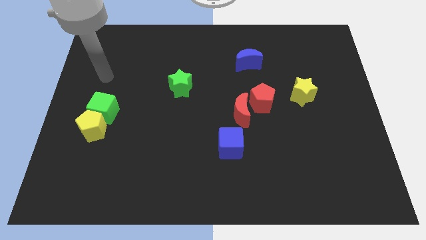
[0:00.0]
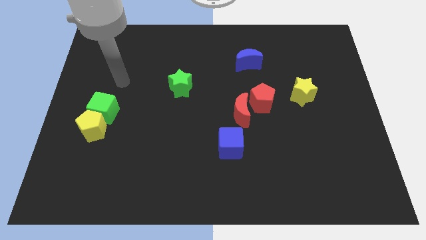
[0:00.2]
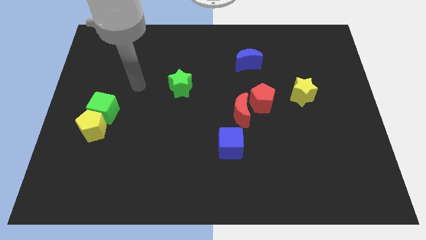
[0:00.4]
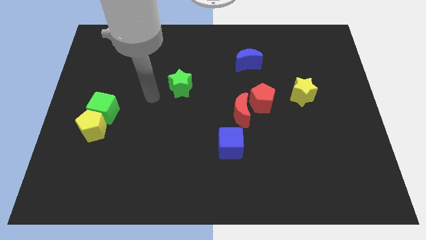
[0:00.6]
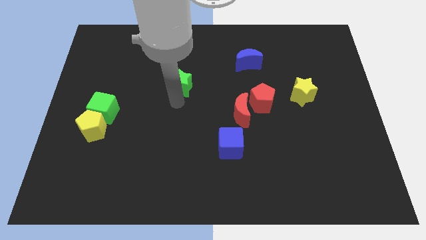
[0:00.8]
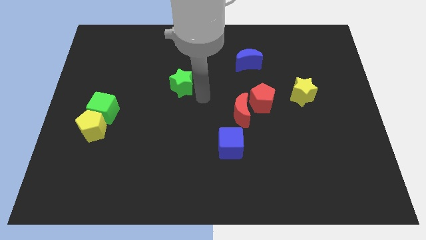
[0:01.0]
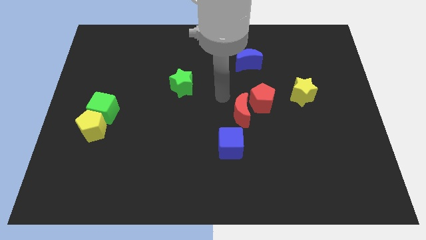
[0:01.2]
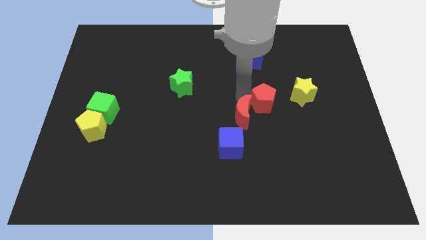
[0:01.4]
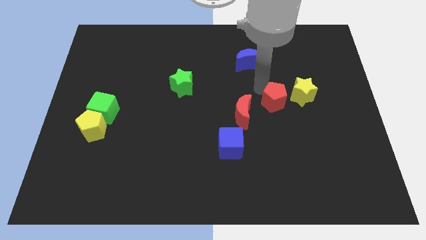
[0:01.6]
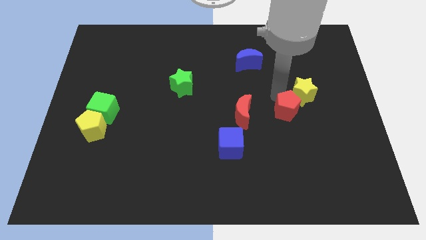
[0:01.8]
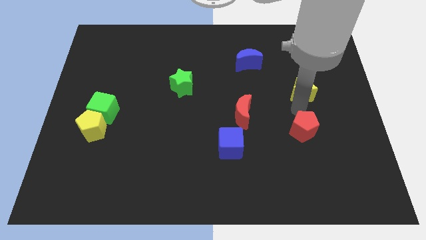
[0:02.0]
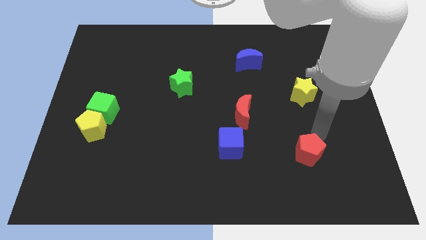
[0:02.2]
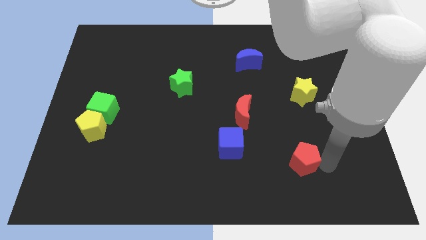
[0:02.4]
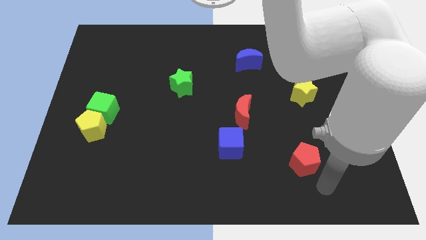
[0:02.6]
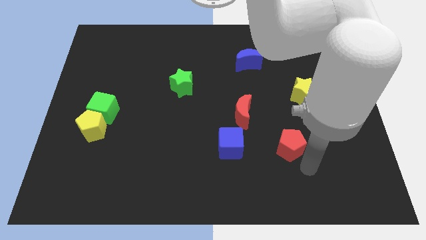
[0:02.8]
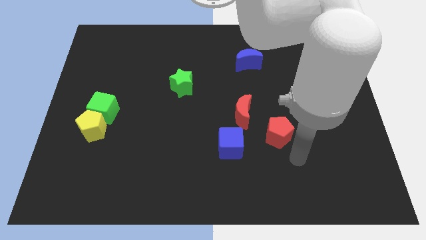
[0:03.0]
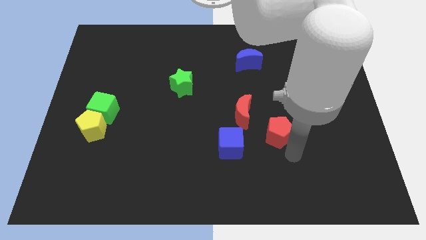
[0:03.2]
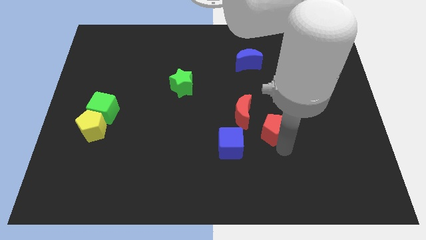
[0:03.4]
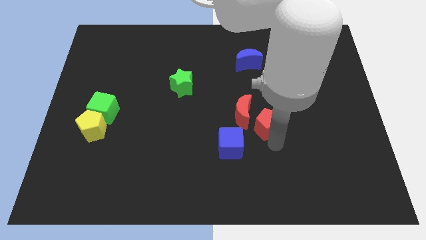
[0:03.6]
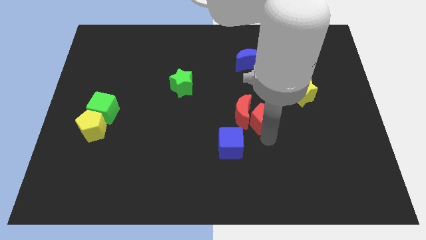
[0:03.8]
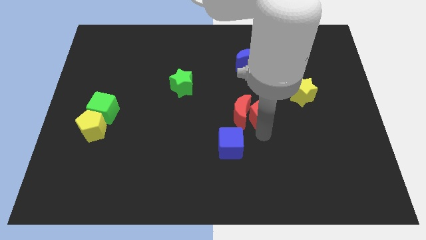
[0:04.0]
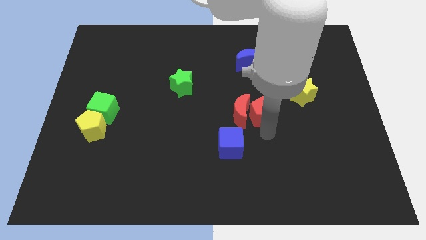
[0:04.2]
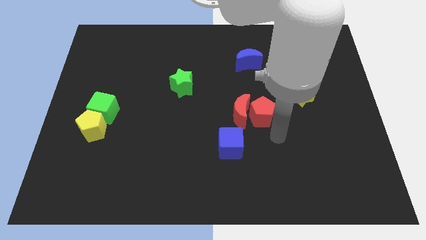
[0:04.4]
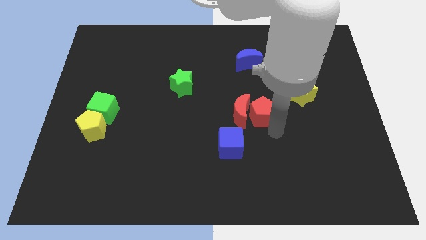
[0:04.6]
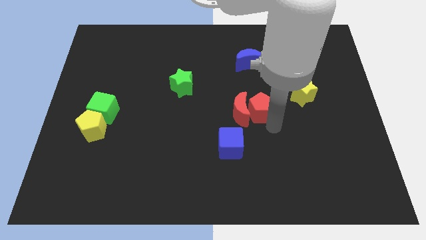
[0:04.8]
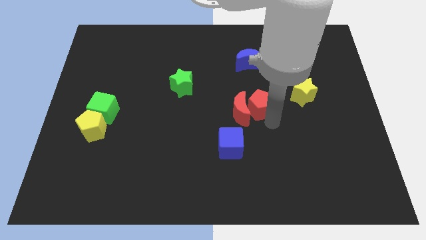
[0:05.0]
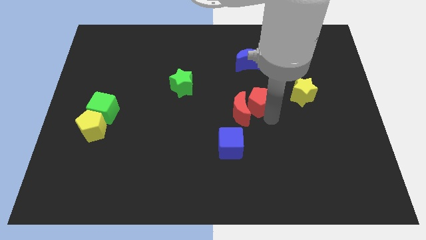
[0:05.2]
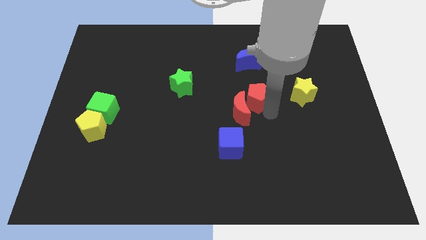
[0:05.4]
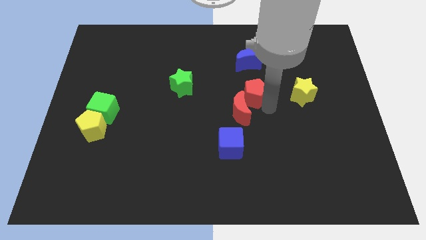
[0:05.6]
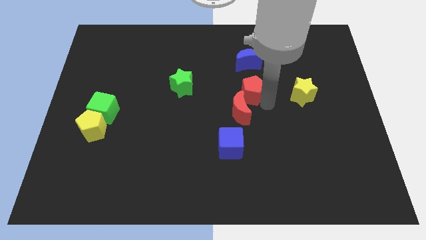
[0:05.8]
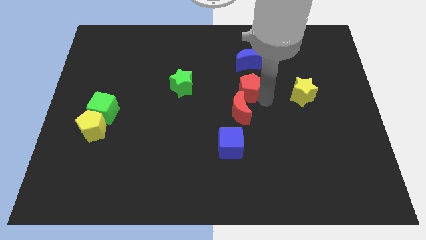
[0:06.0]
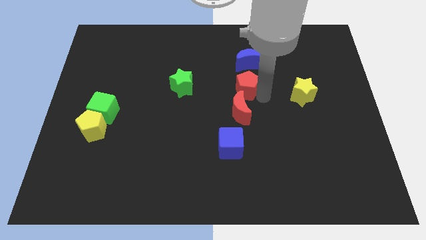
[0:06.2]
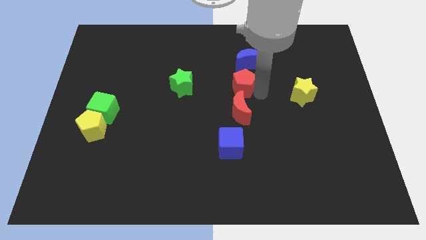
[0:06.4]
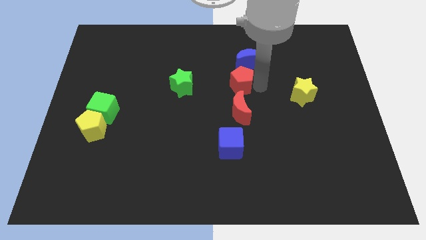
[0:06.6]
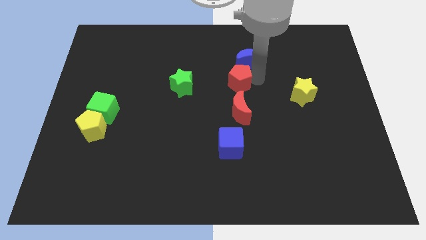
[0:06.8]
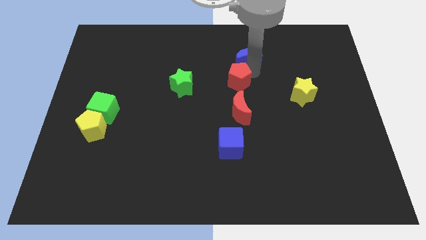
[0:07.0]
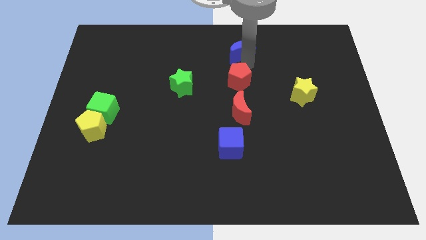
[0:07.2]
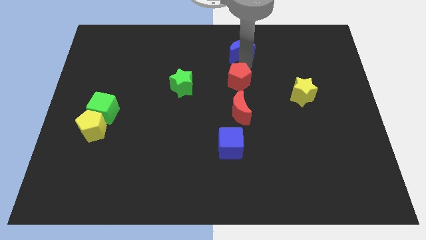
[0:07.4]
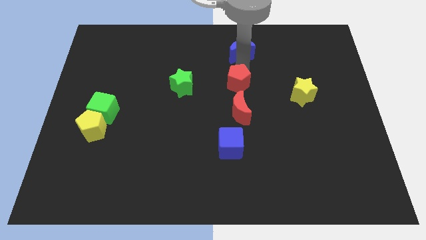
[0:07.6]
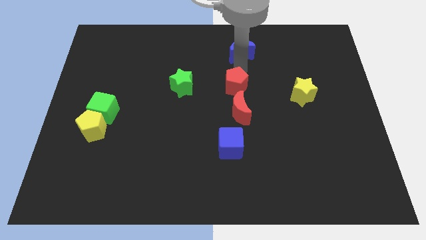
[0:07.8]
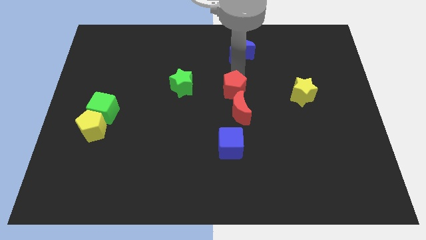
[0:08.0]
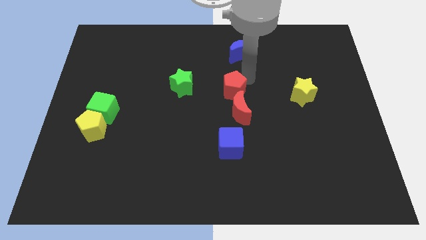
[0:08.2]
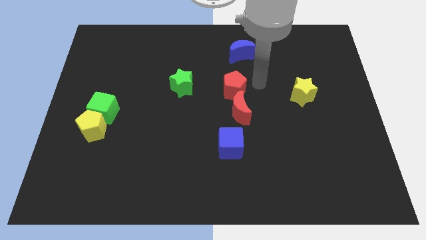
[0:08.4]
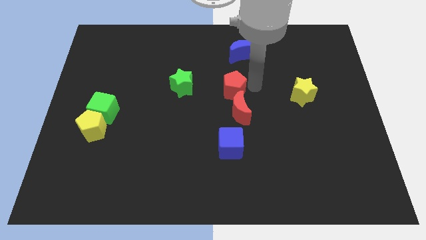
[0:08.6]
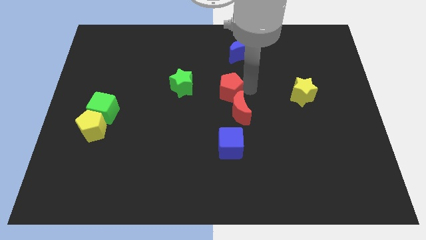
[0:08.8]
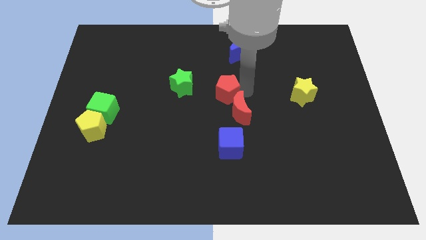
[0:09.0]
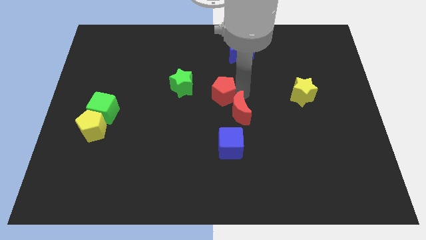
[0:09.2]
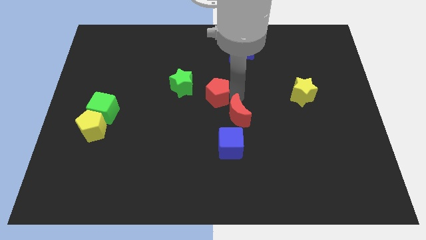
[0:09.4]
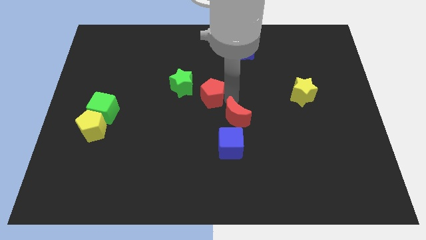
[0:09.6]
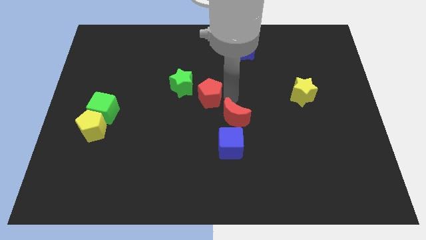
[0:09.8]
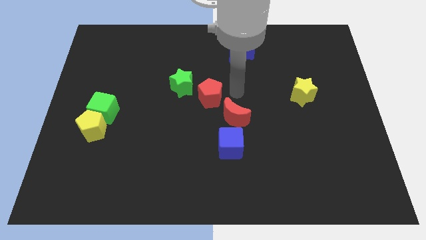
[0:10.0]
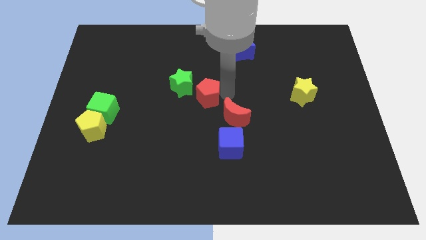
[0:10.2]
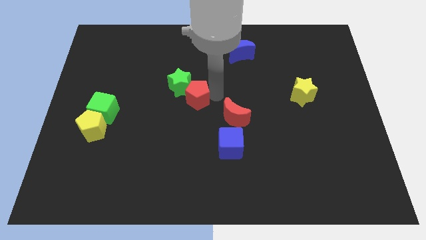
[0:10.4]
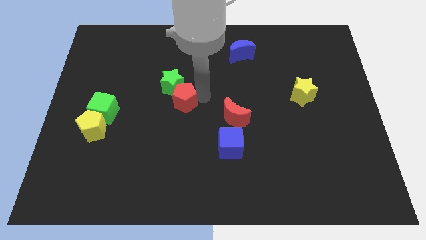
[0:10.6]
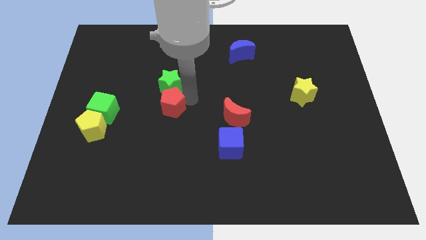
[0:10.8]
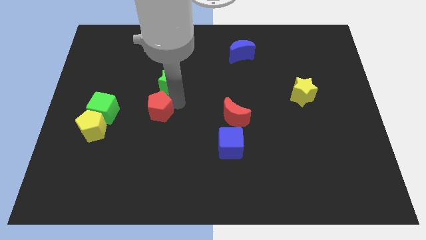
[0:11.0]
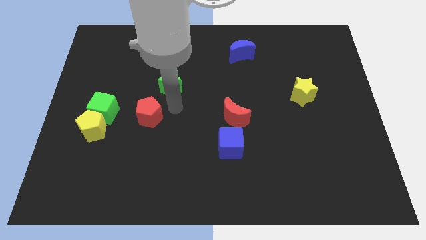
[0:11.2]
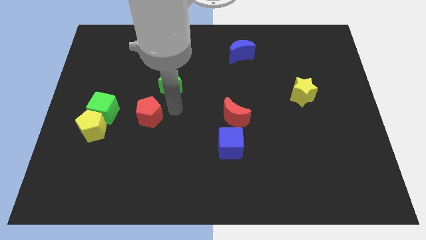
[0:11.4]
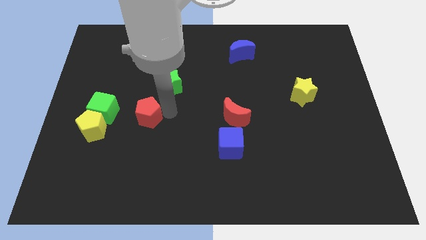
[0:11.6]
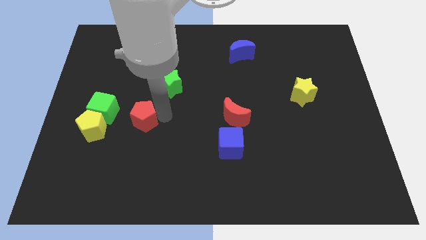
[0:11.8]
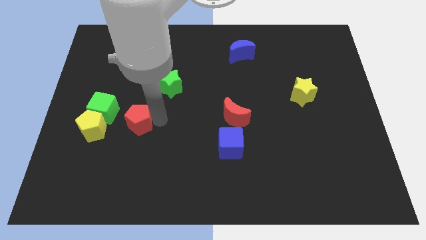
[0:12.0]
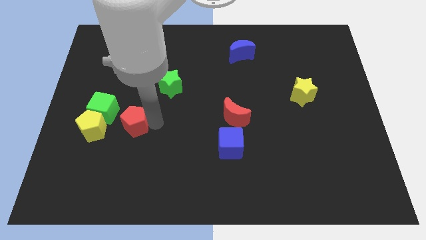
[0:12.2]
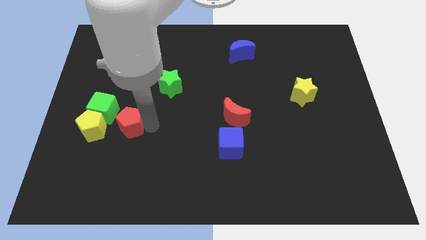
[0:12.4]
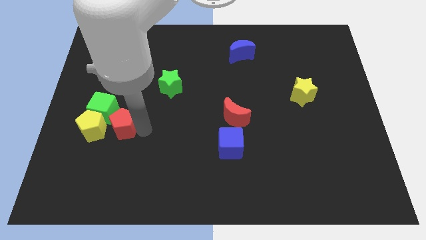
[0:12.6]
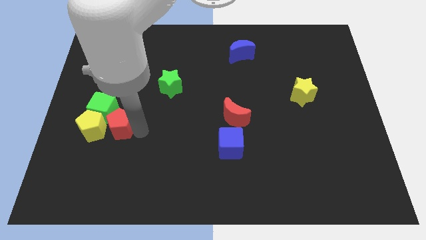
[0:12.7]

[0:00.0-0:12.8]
slide the red pentagon close to the yellow pentagon

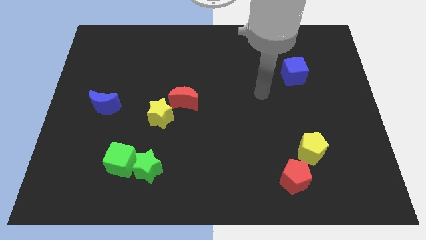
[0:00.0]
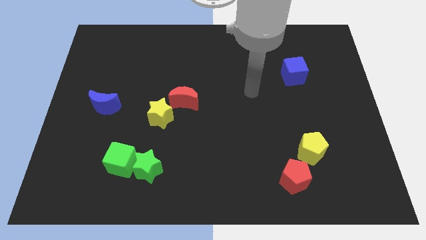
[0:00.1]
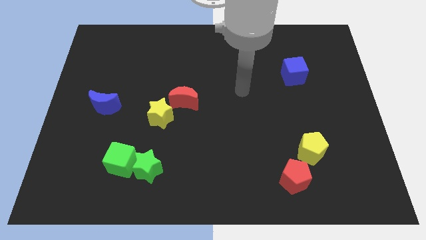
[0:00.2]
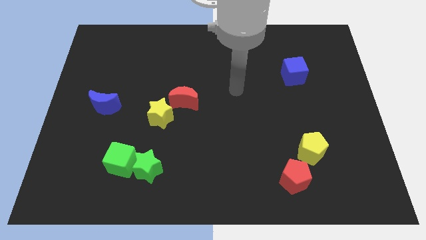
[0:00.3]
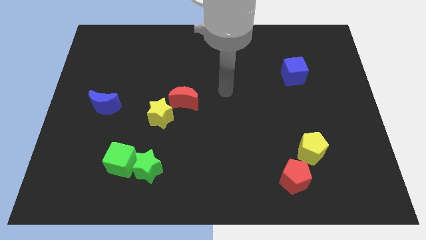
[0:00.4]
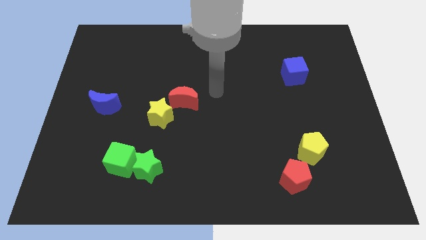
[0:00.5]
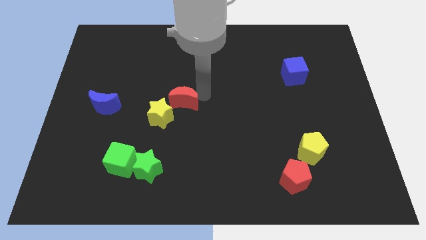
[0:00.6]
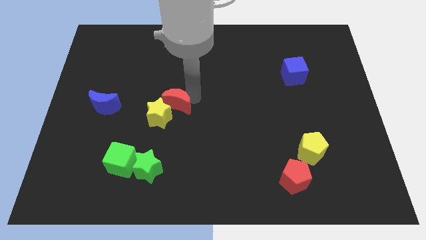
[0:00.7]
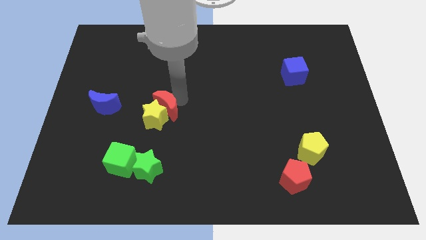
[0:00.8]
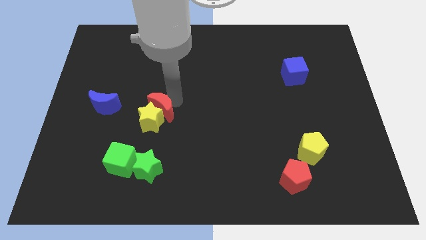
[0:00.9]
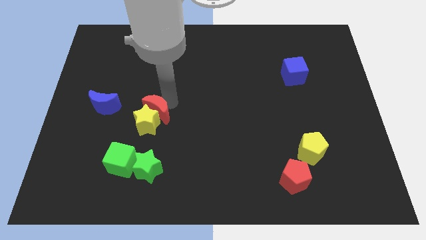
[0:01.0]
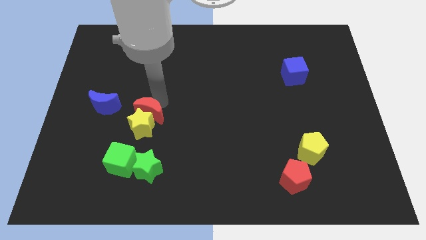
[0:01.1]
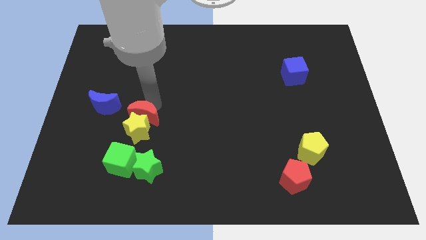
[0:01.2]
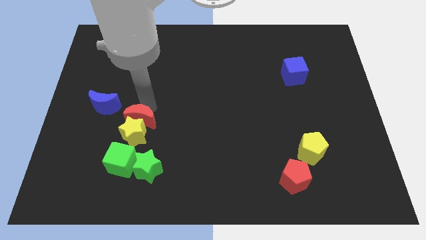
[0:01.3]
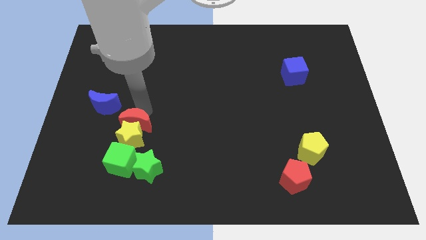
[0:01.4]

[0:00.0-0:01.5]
push the yellow star next to the green cube
